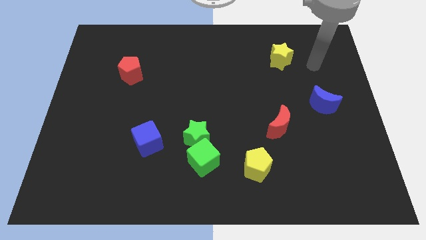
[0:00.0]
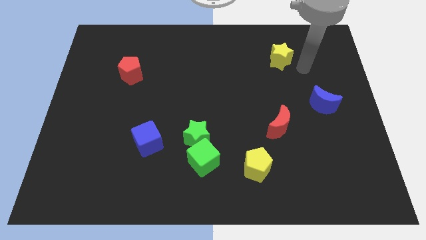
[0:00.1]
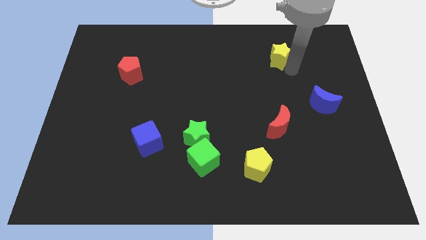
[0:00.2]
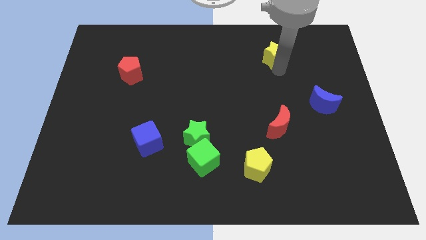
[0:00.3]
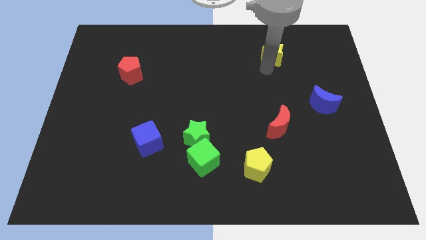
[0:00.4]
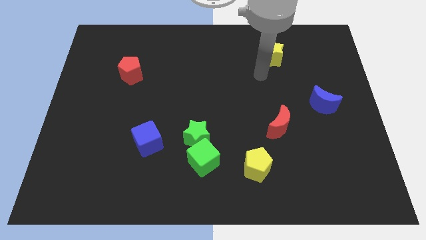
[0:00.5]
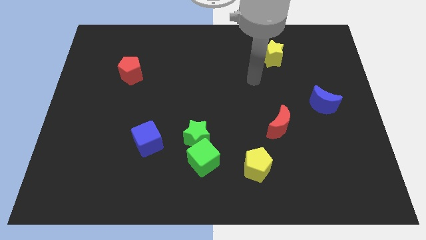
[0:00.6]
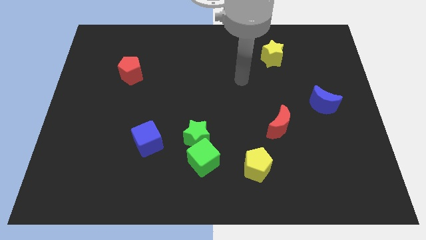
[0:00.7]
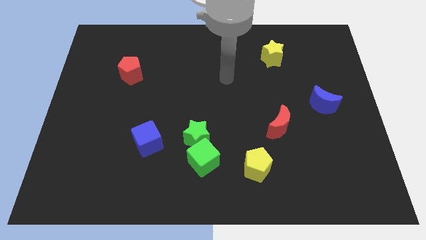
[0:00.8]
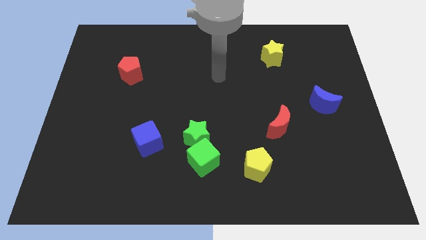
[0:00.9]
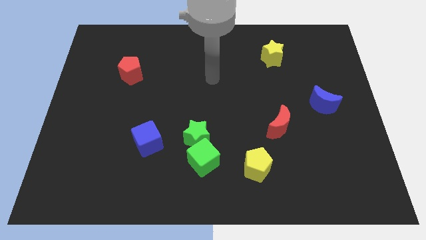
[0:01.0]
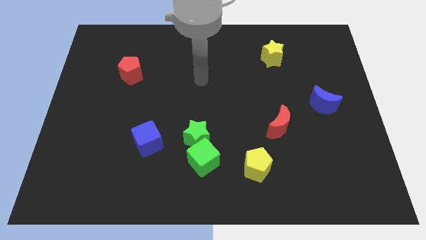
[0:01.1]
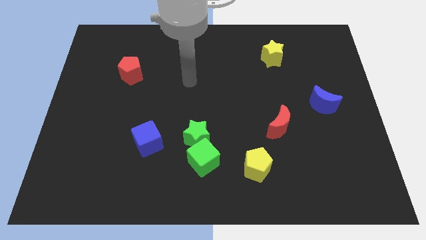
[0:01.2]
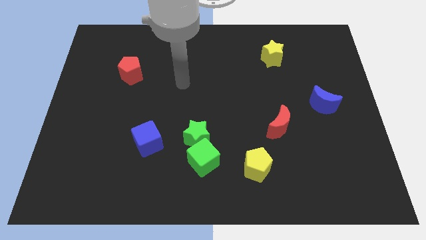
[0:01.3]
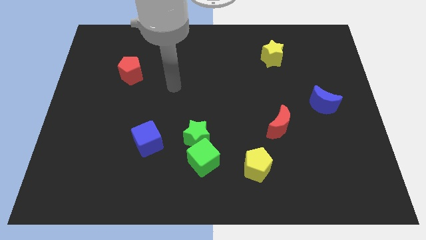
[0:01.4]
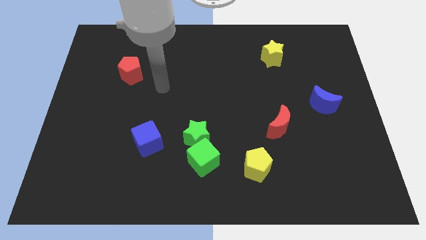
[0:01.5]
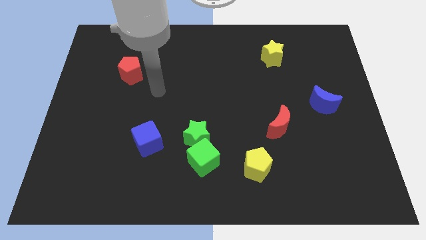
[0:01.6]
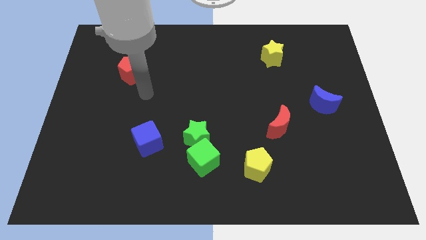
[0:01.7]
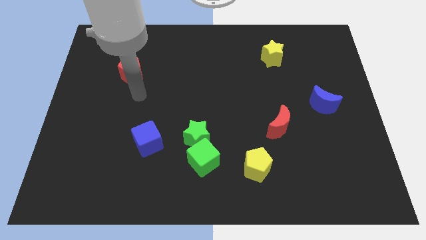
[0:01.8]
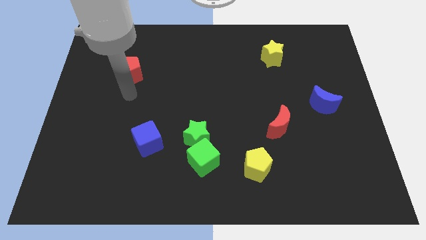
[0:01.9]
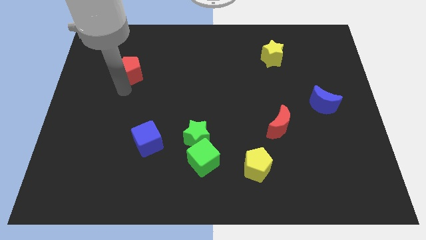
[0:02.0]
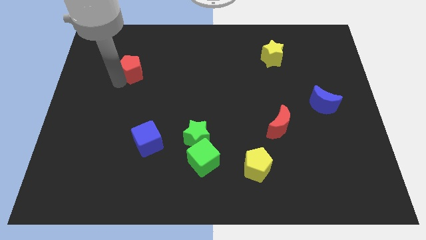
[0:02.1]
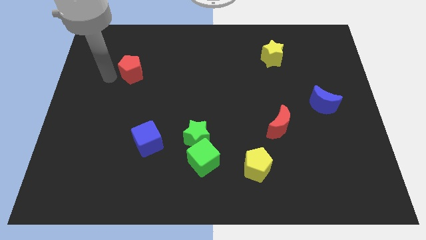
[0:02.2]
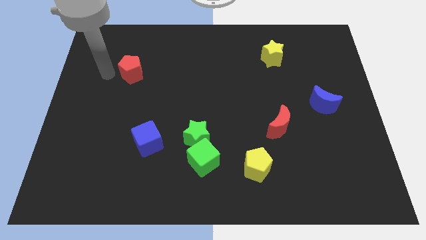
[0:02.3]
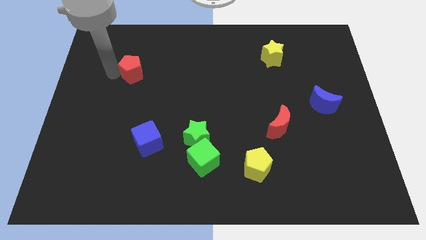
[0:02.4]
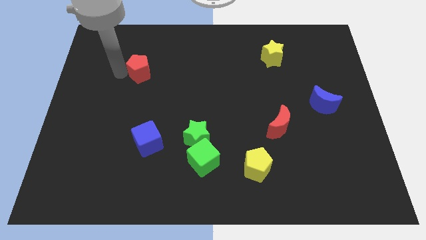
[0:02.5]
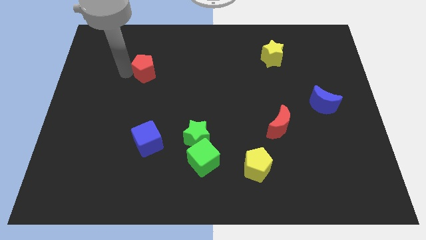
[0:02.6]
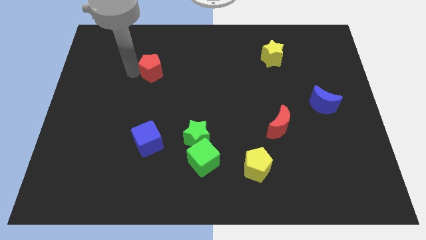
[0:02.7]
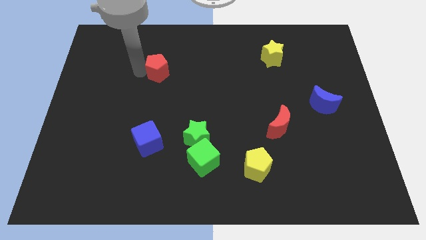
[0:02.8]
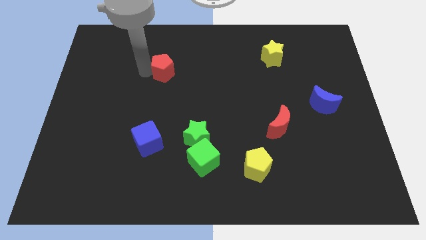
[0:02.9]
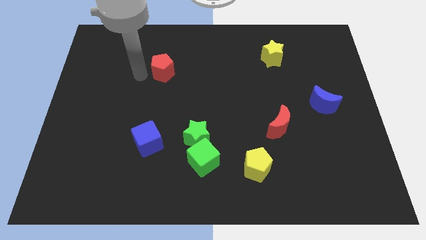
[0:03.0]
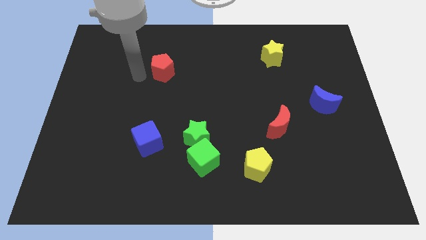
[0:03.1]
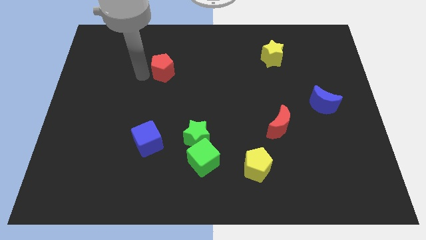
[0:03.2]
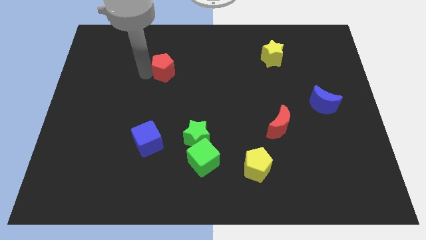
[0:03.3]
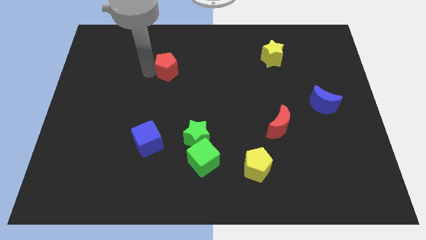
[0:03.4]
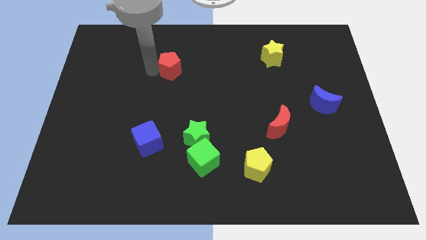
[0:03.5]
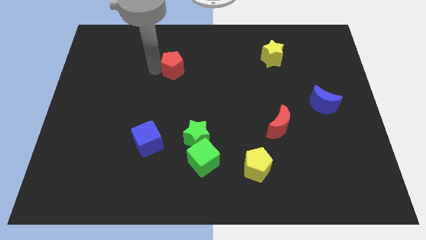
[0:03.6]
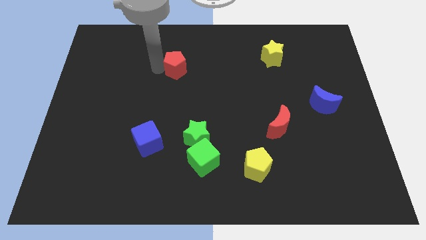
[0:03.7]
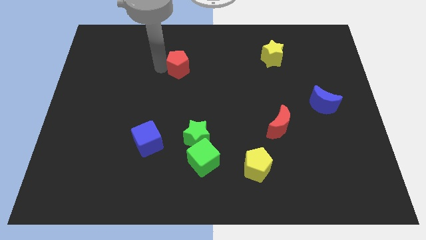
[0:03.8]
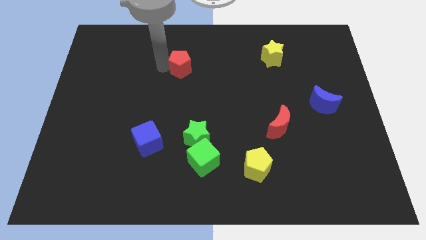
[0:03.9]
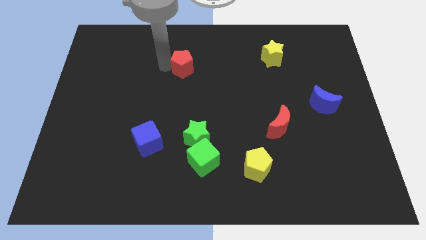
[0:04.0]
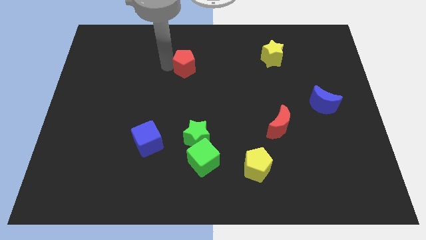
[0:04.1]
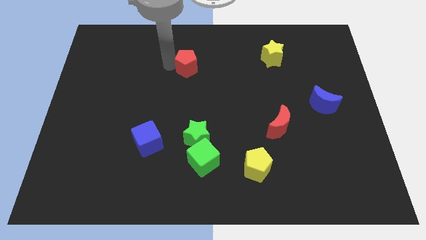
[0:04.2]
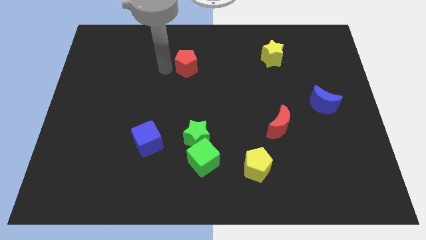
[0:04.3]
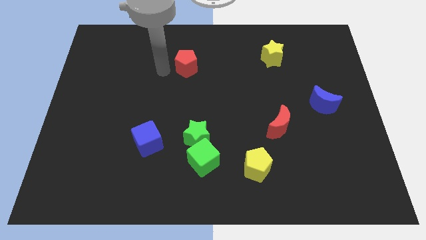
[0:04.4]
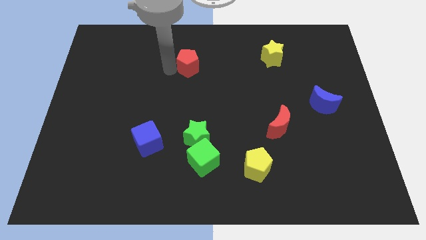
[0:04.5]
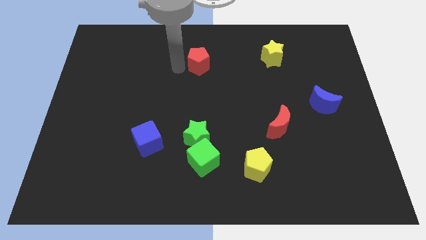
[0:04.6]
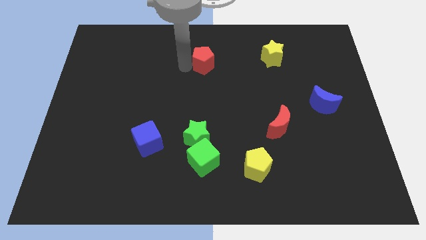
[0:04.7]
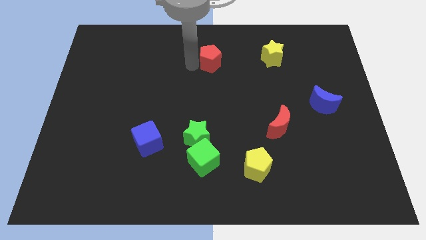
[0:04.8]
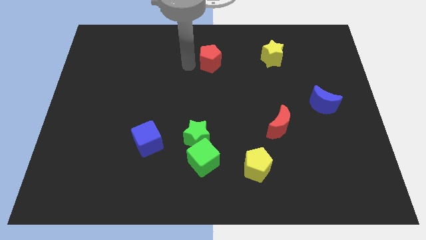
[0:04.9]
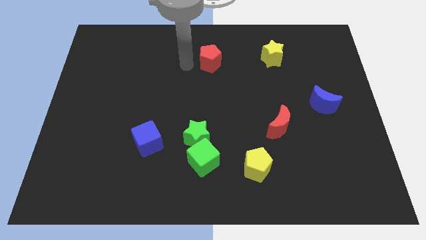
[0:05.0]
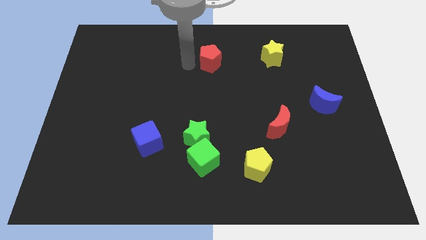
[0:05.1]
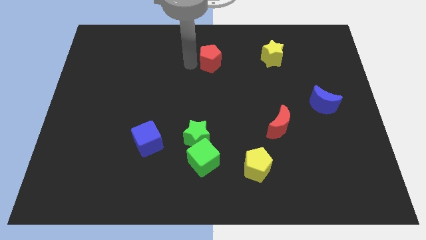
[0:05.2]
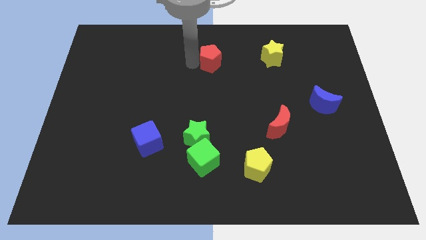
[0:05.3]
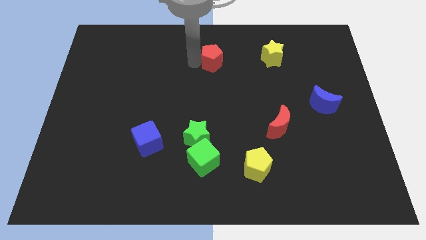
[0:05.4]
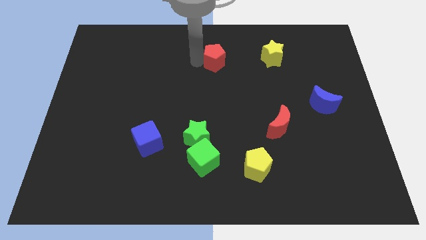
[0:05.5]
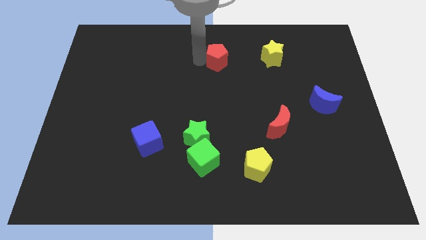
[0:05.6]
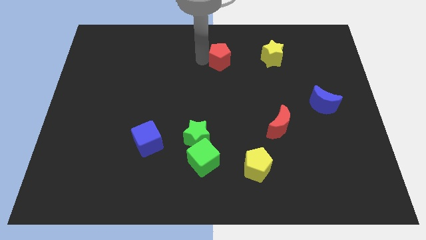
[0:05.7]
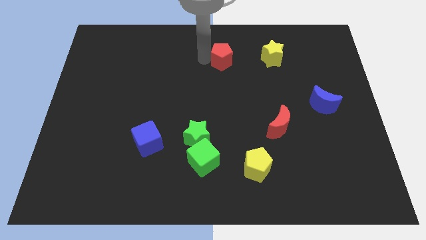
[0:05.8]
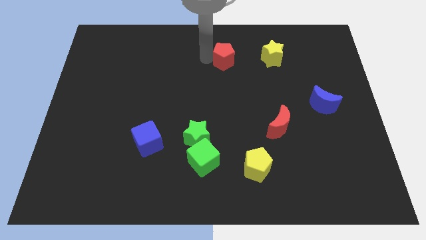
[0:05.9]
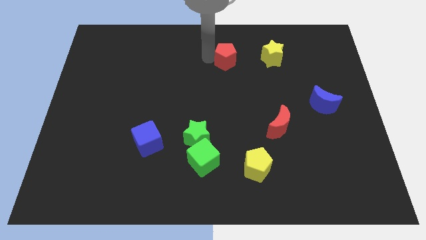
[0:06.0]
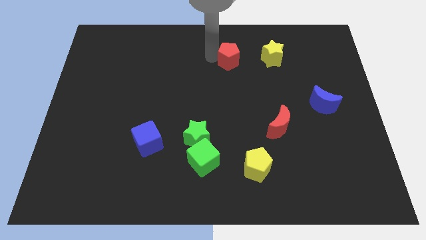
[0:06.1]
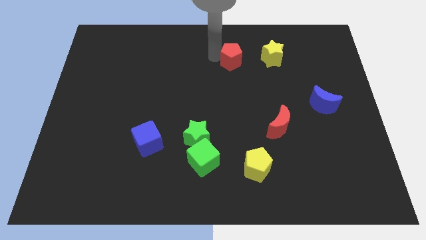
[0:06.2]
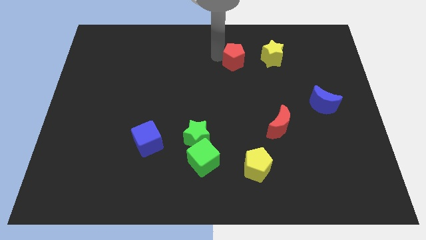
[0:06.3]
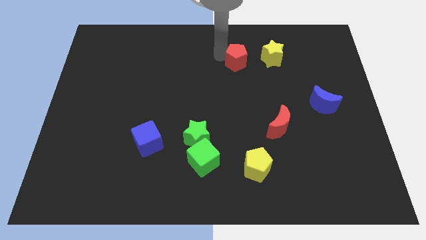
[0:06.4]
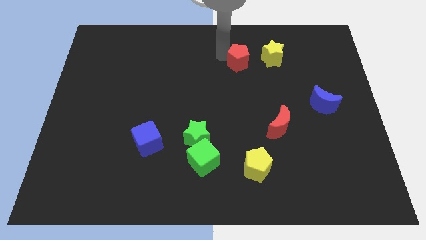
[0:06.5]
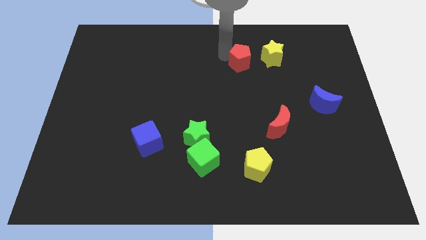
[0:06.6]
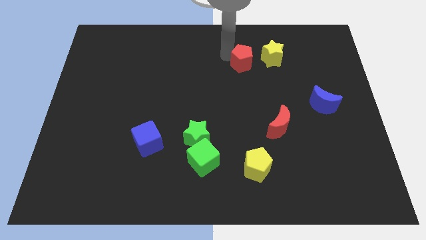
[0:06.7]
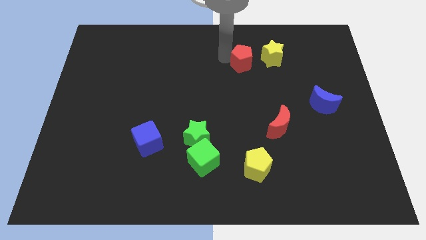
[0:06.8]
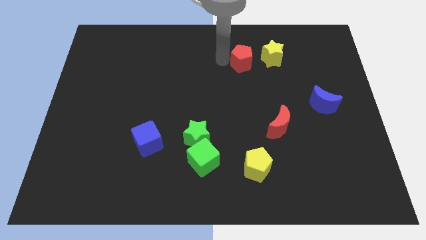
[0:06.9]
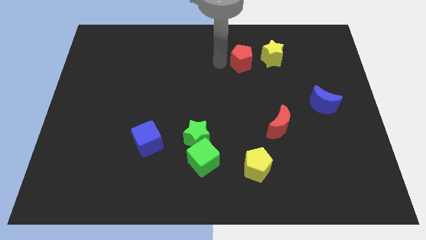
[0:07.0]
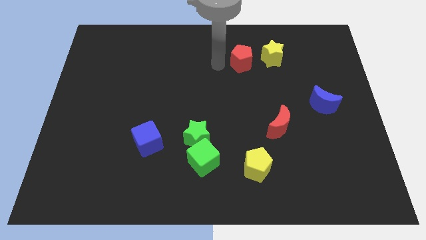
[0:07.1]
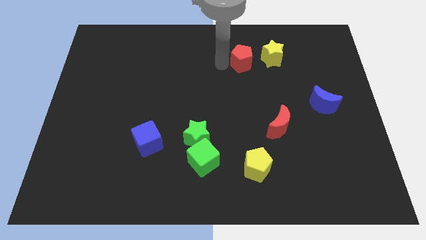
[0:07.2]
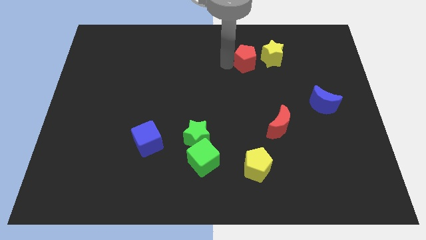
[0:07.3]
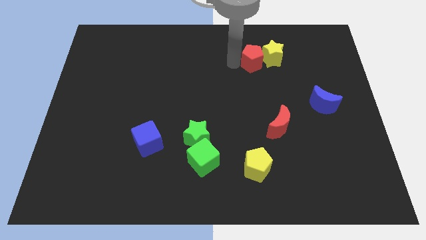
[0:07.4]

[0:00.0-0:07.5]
move the red pentagon to the yellow star
